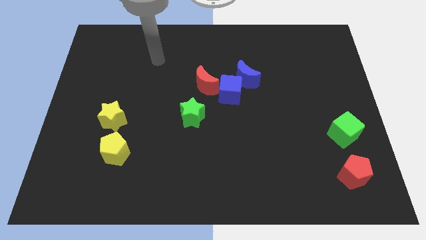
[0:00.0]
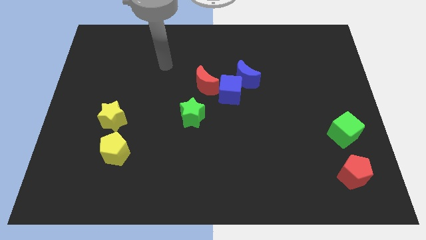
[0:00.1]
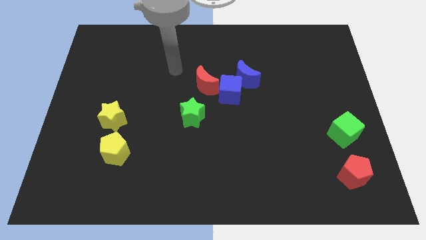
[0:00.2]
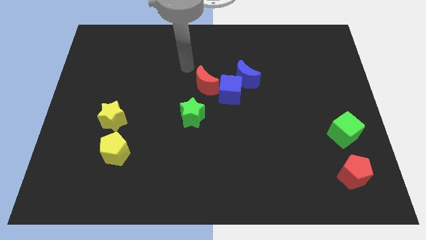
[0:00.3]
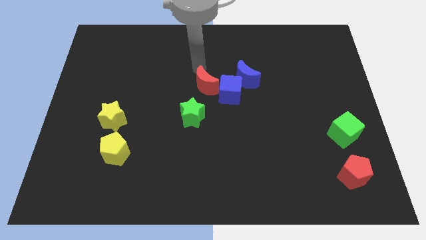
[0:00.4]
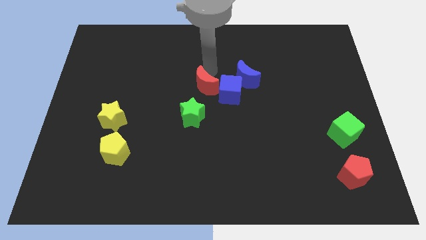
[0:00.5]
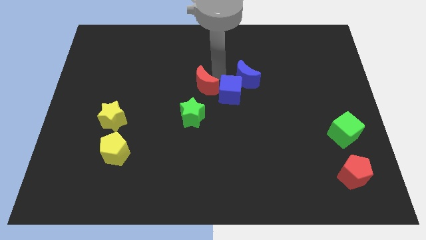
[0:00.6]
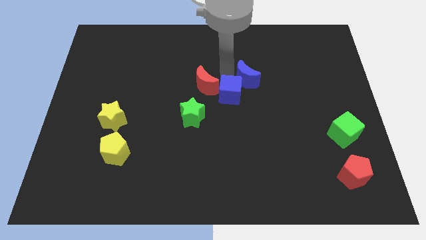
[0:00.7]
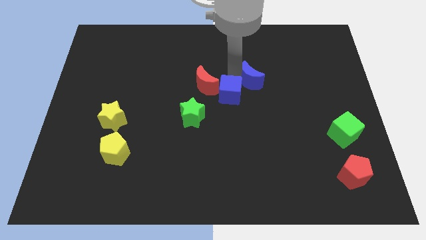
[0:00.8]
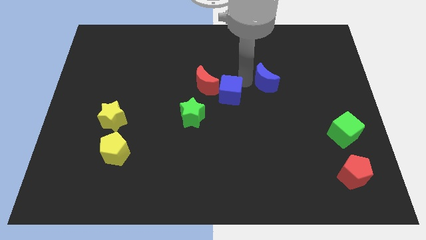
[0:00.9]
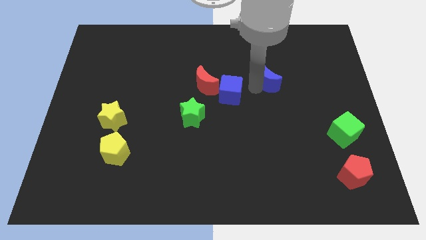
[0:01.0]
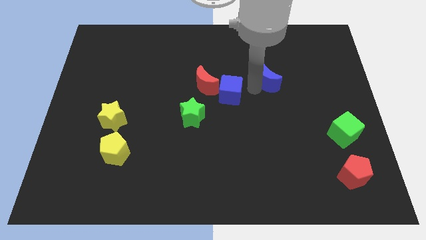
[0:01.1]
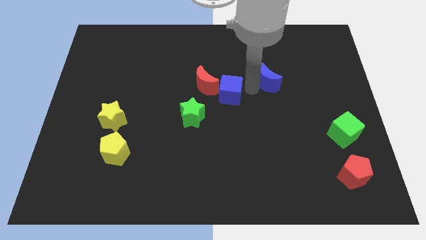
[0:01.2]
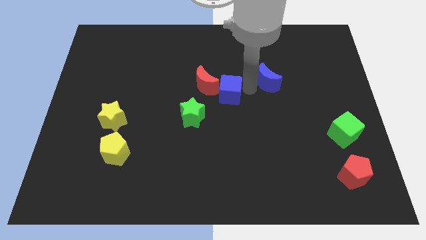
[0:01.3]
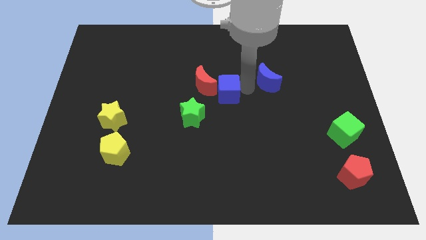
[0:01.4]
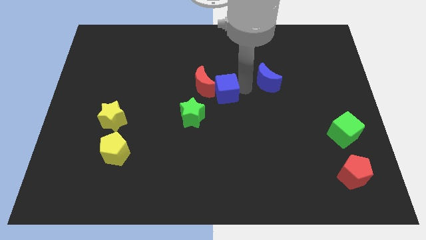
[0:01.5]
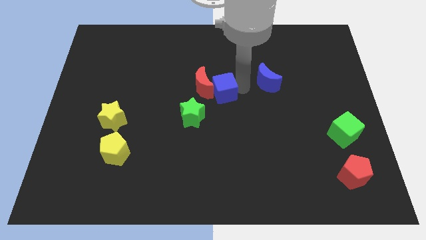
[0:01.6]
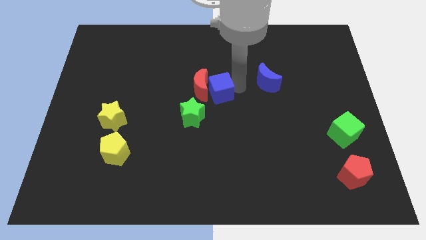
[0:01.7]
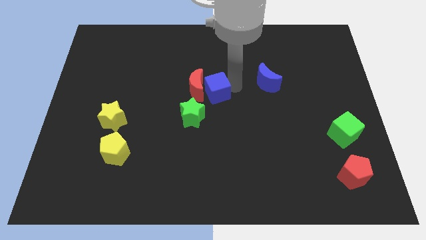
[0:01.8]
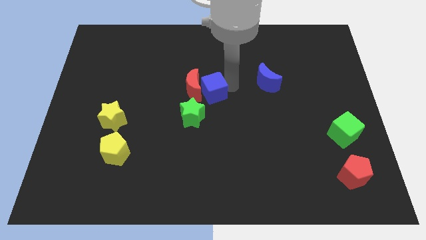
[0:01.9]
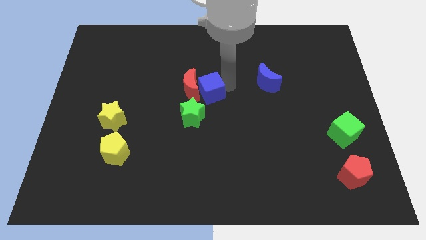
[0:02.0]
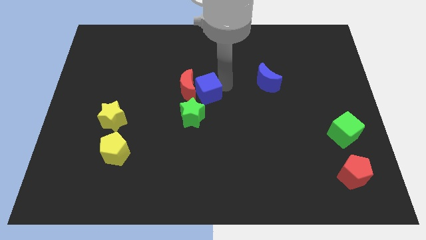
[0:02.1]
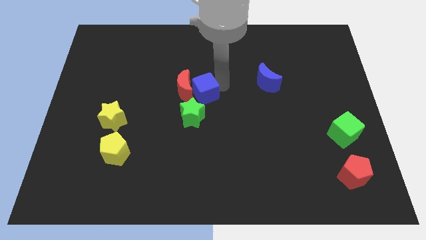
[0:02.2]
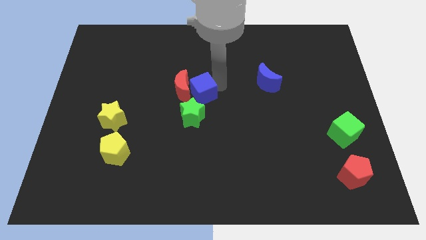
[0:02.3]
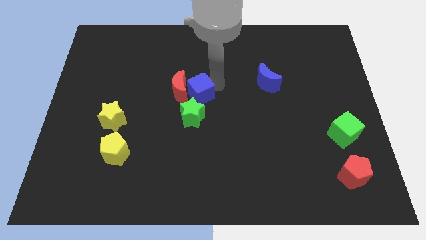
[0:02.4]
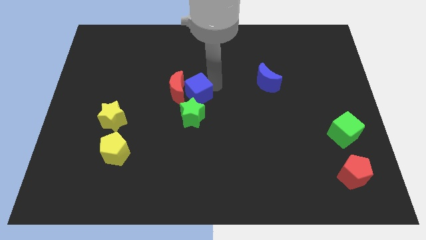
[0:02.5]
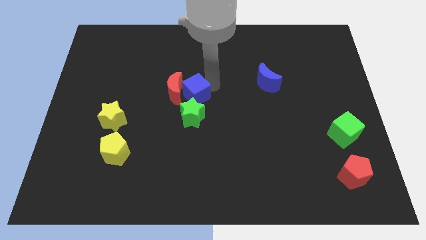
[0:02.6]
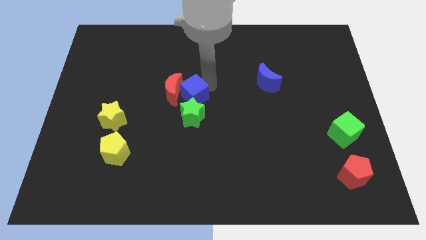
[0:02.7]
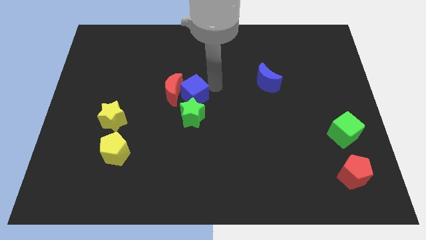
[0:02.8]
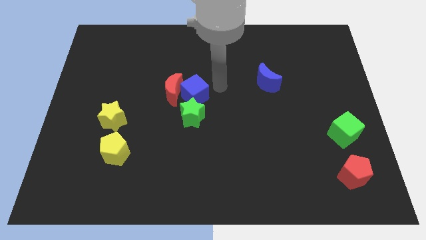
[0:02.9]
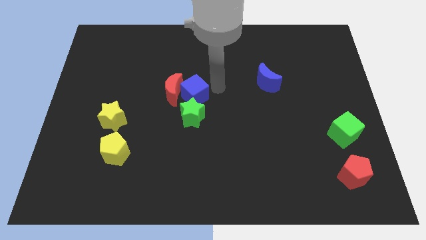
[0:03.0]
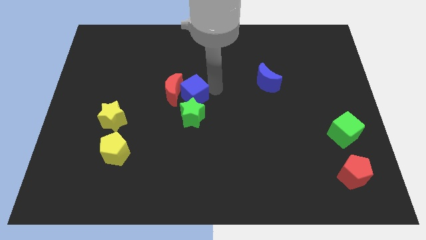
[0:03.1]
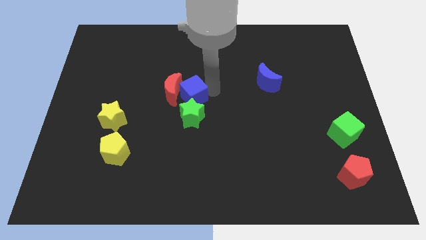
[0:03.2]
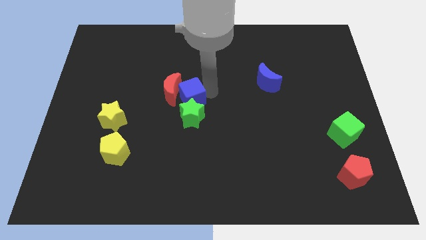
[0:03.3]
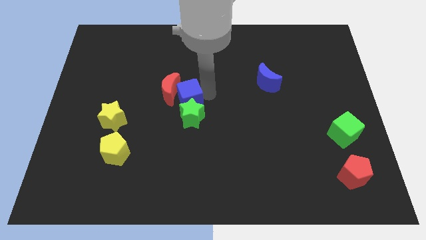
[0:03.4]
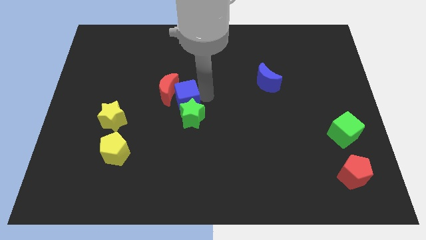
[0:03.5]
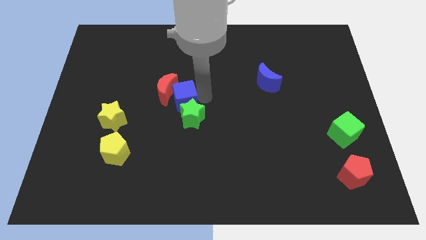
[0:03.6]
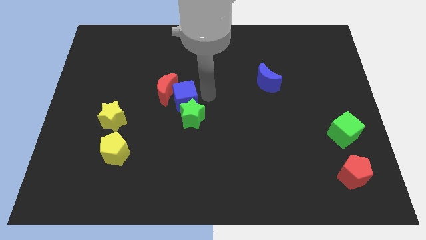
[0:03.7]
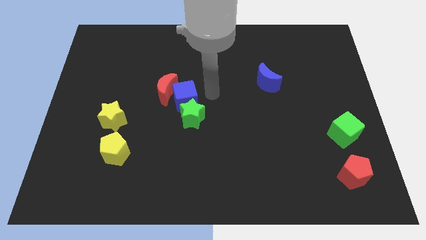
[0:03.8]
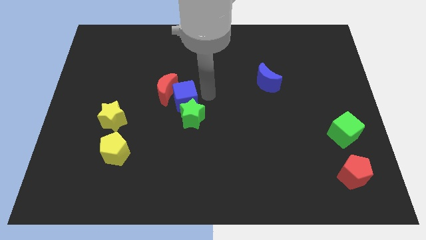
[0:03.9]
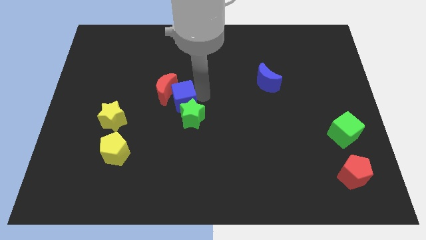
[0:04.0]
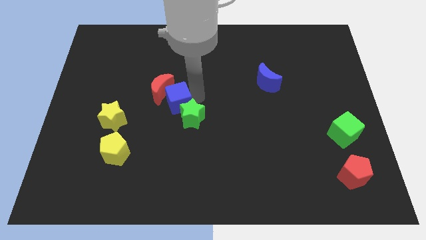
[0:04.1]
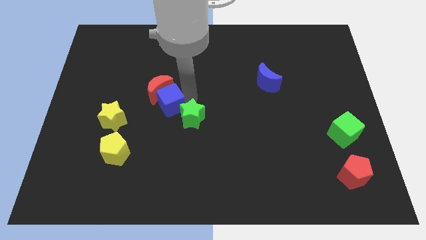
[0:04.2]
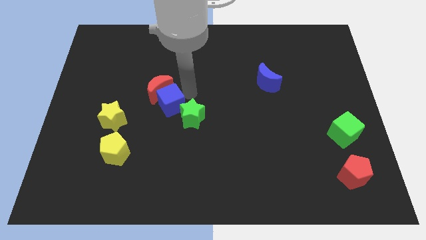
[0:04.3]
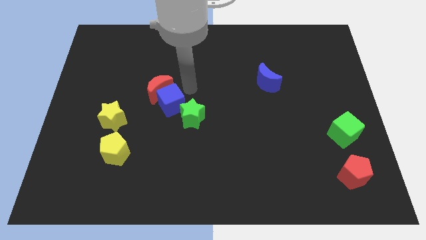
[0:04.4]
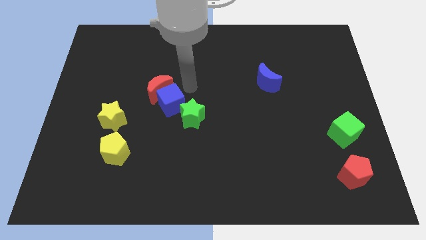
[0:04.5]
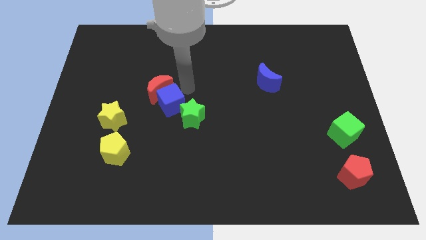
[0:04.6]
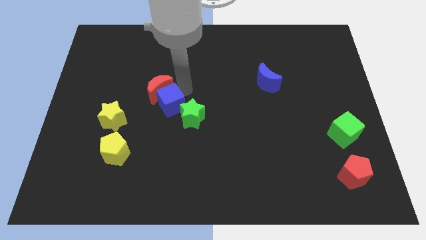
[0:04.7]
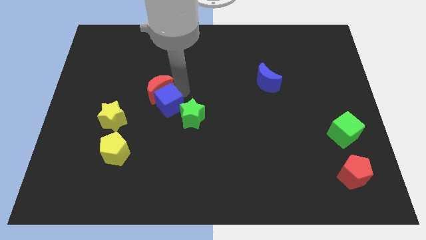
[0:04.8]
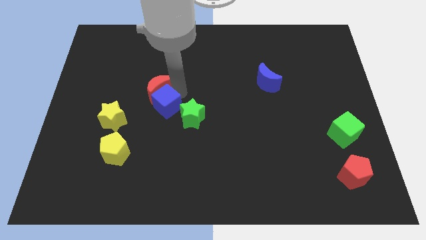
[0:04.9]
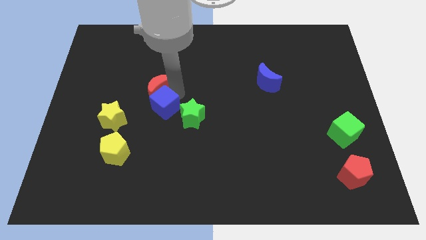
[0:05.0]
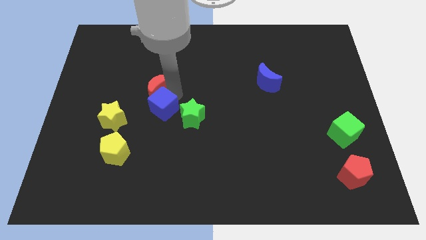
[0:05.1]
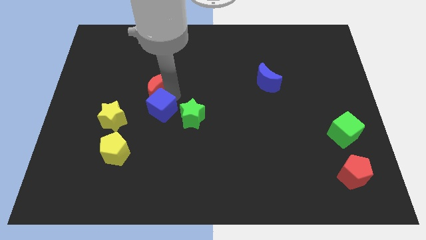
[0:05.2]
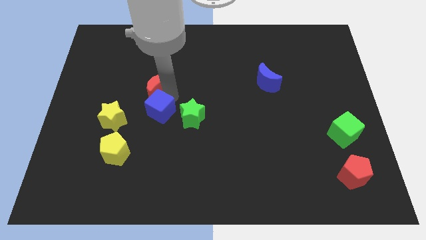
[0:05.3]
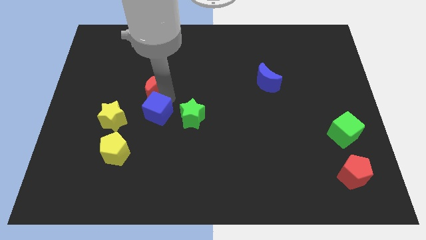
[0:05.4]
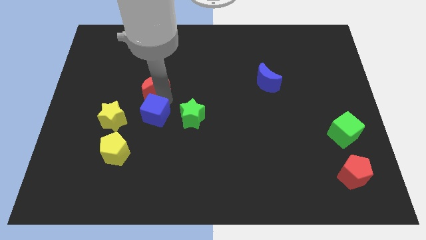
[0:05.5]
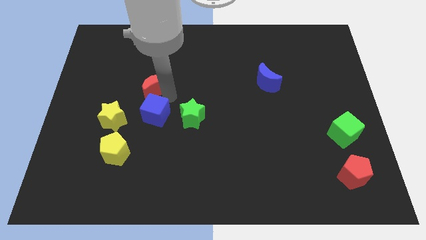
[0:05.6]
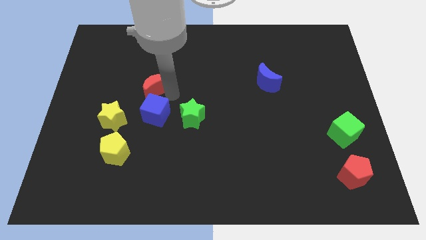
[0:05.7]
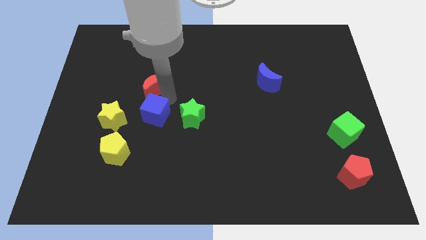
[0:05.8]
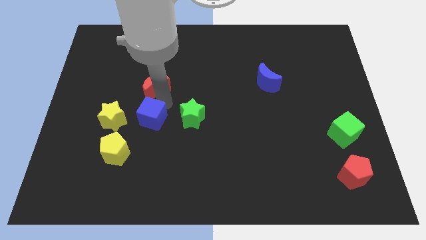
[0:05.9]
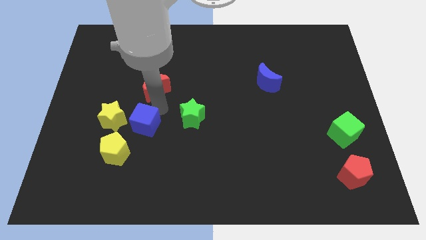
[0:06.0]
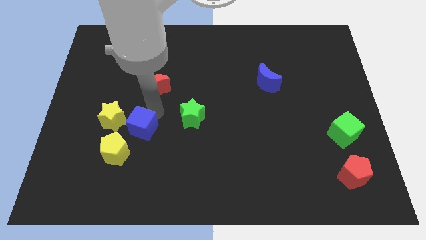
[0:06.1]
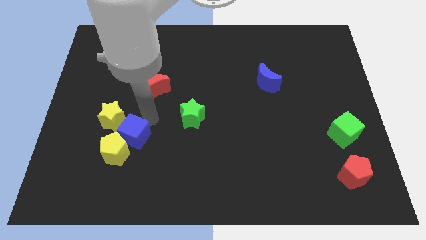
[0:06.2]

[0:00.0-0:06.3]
move the blue cube close to the yellow pentagon

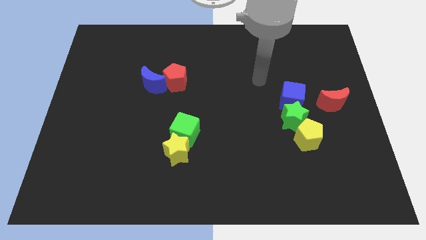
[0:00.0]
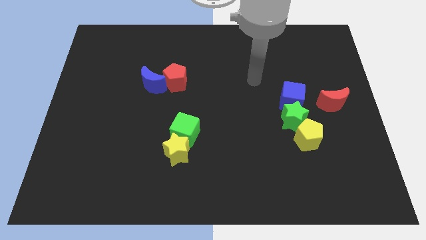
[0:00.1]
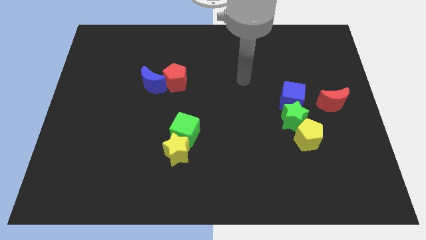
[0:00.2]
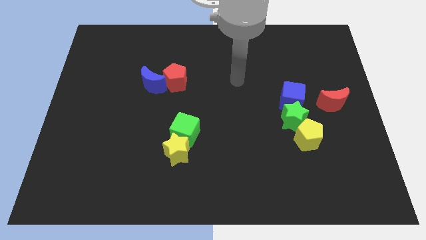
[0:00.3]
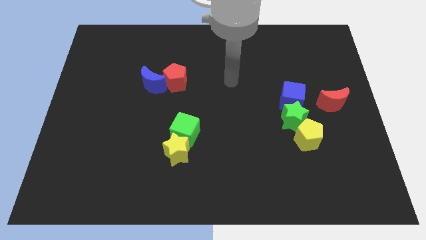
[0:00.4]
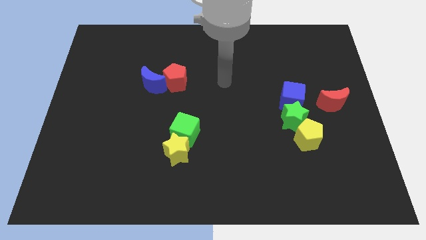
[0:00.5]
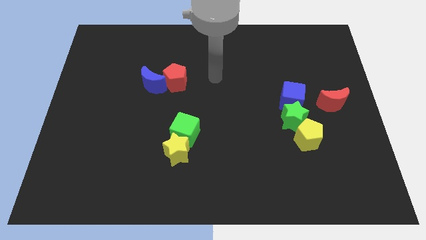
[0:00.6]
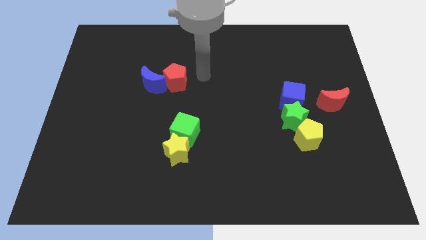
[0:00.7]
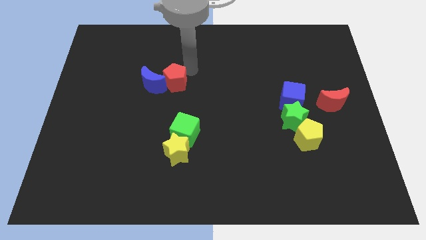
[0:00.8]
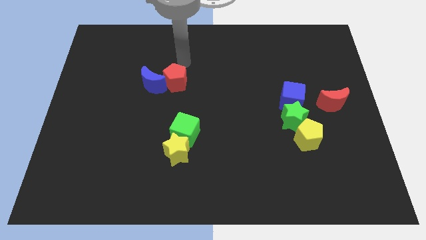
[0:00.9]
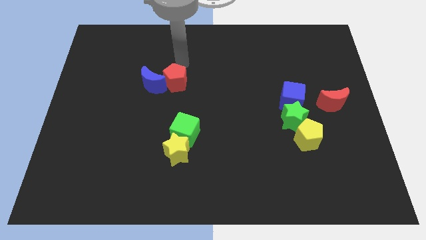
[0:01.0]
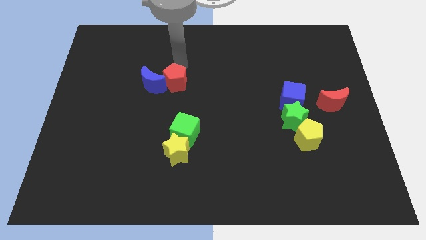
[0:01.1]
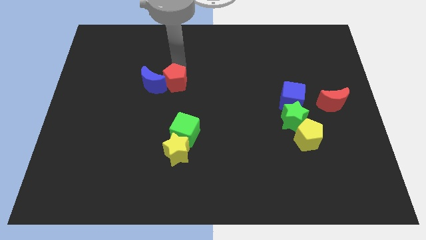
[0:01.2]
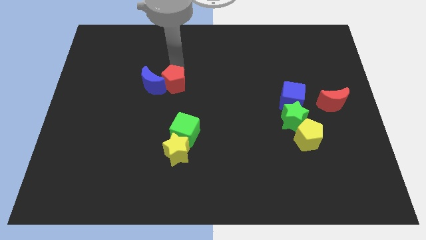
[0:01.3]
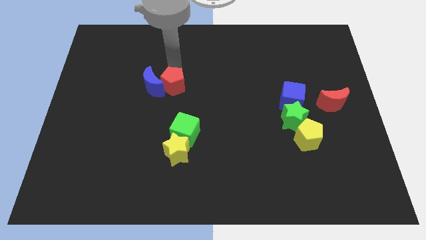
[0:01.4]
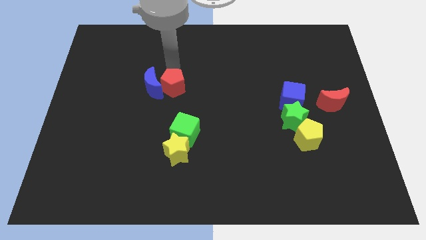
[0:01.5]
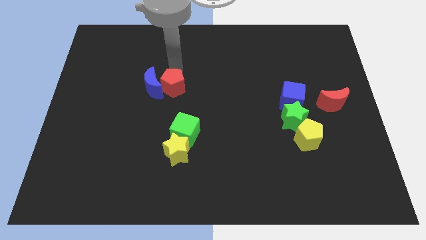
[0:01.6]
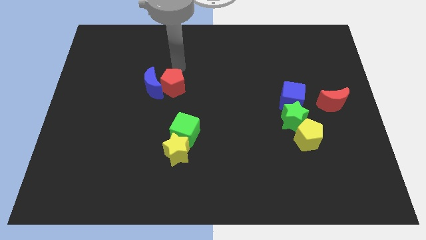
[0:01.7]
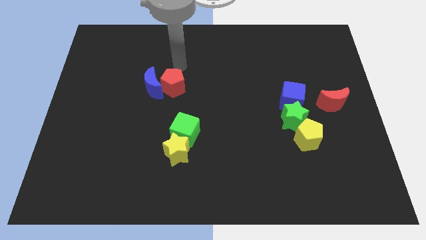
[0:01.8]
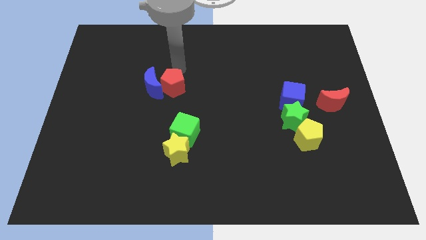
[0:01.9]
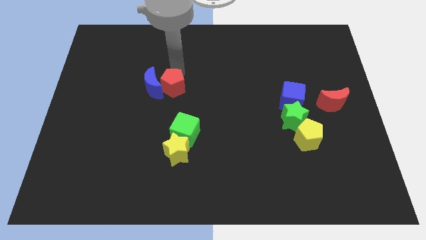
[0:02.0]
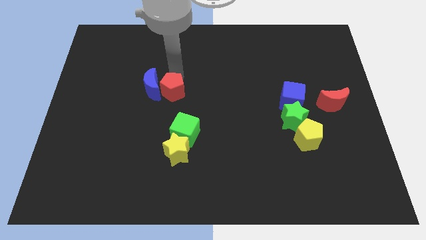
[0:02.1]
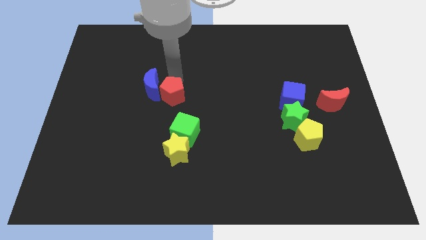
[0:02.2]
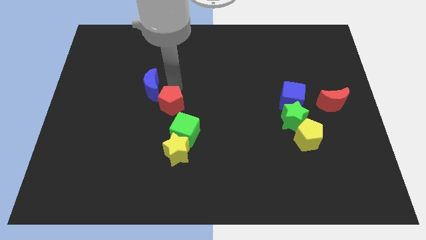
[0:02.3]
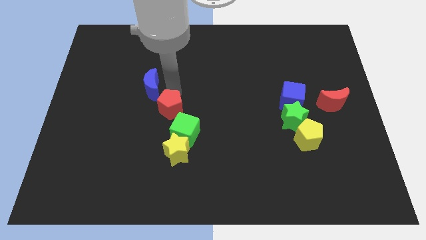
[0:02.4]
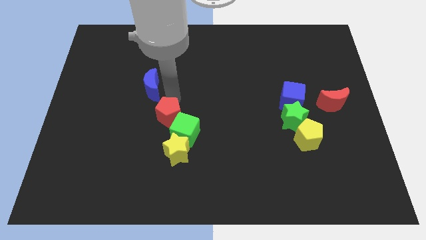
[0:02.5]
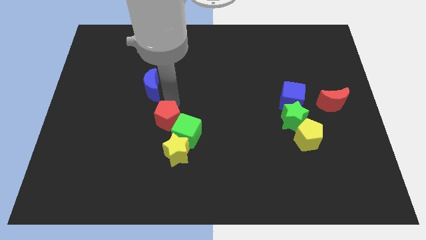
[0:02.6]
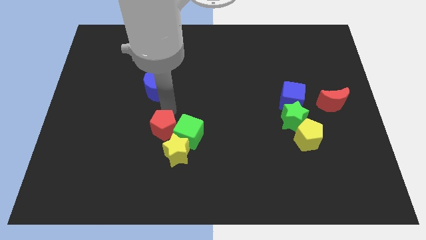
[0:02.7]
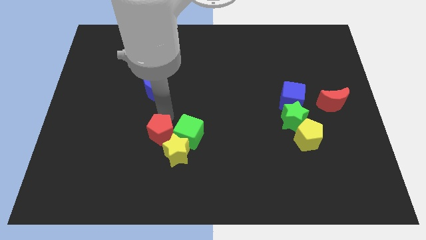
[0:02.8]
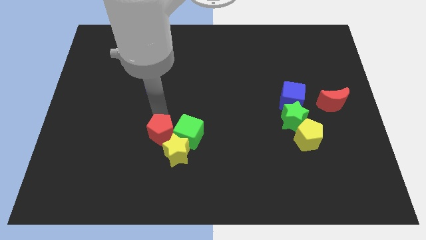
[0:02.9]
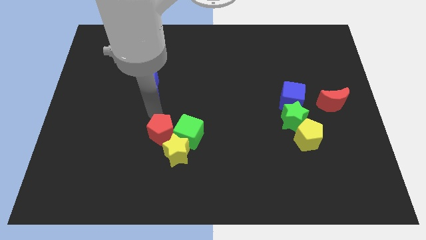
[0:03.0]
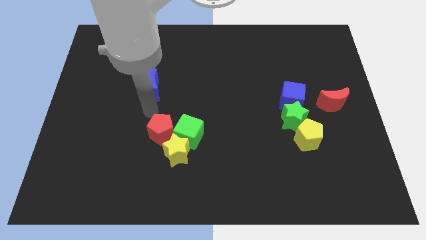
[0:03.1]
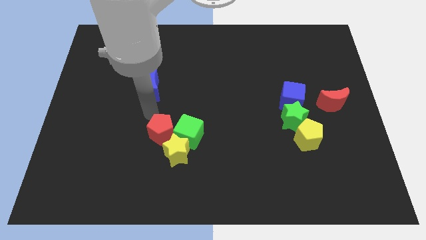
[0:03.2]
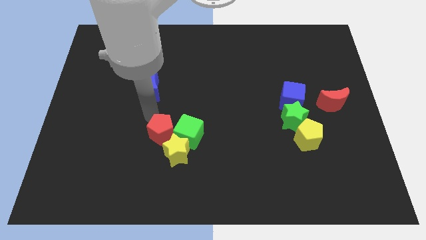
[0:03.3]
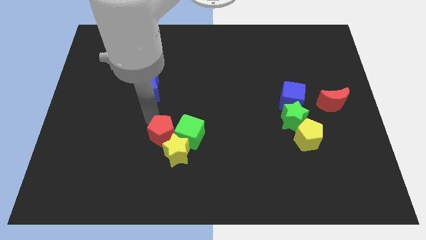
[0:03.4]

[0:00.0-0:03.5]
slide the red pentagon to the yellow star
